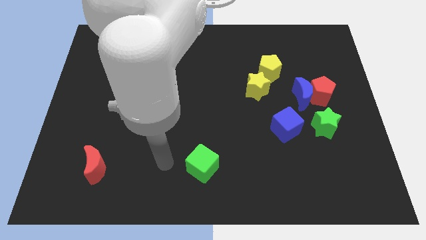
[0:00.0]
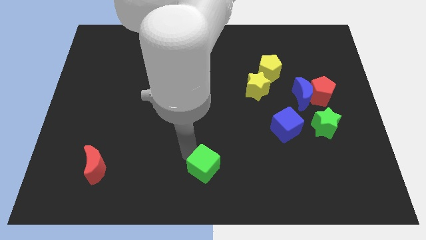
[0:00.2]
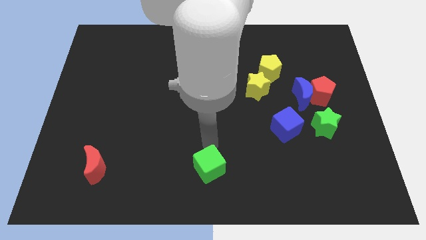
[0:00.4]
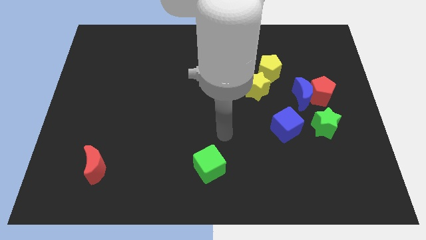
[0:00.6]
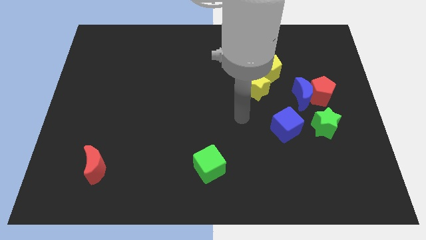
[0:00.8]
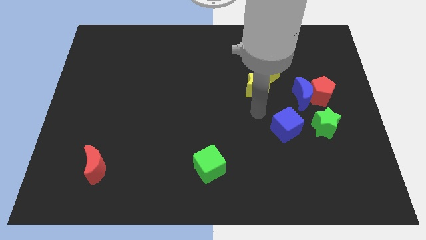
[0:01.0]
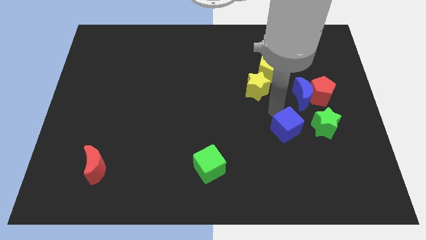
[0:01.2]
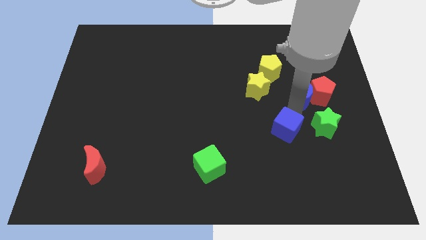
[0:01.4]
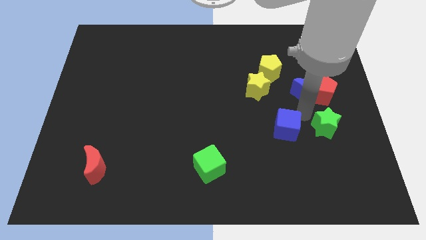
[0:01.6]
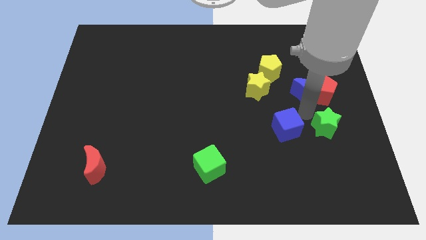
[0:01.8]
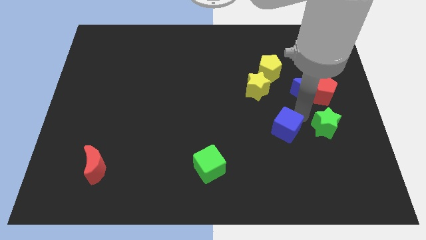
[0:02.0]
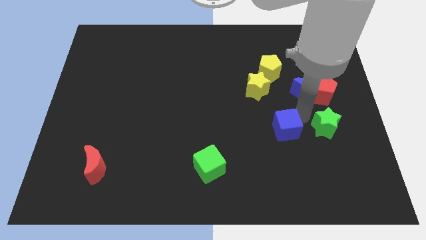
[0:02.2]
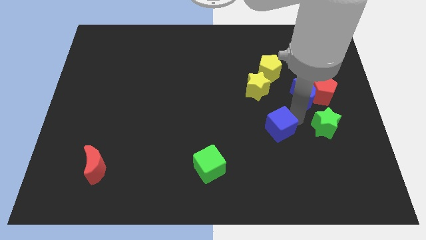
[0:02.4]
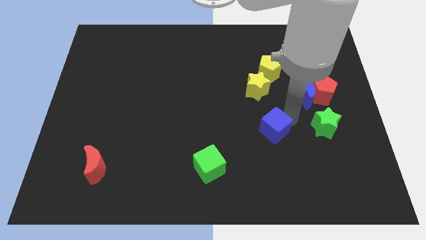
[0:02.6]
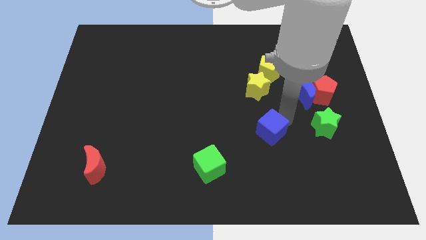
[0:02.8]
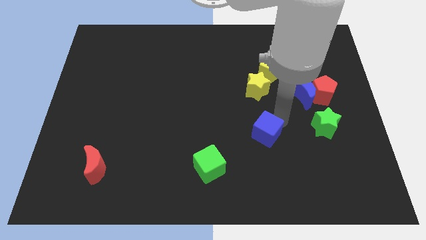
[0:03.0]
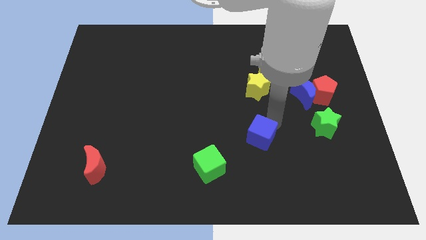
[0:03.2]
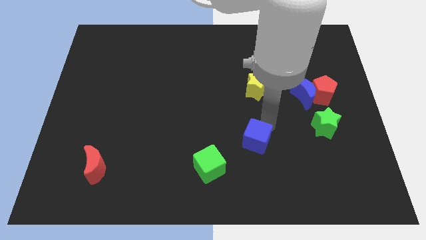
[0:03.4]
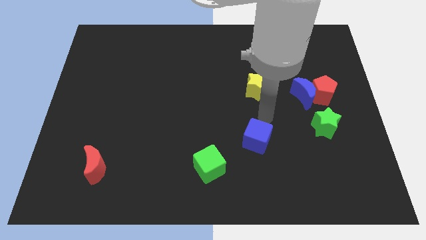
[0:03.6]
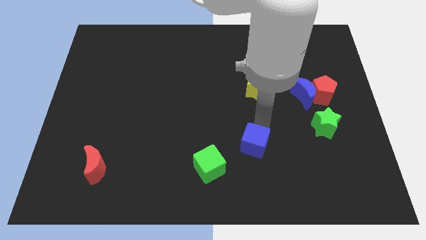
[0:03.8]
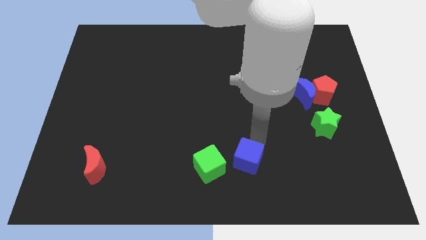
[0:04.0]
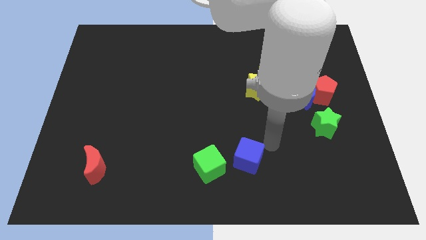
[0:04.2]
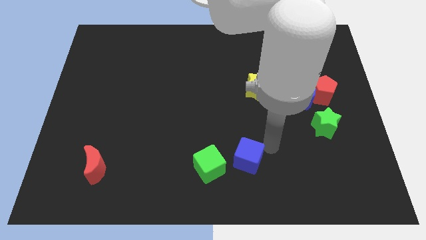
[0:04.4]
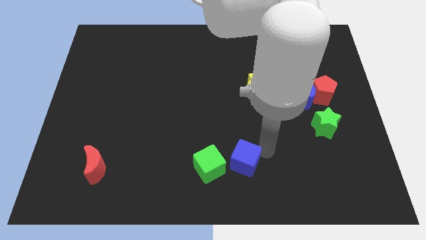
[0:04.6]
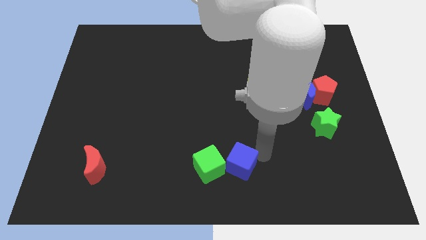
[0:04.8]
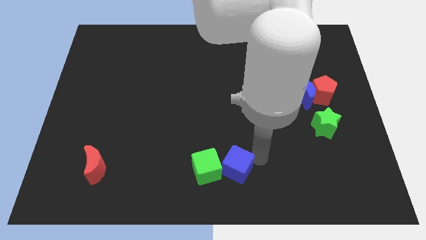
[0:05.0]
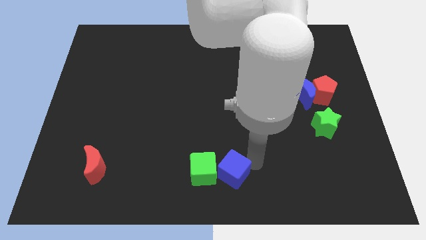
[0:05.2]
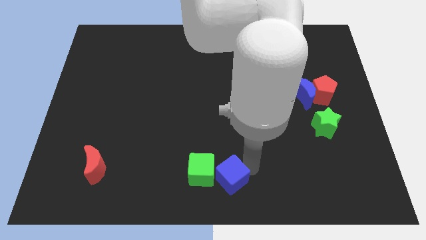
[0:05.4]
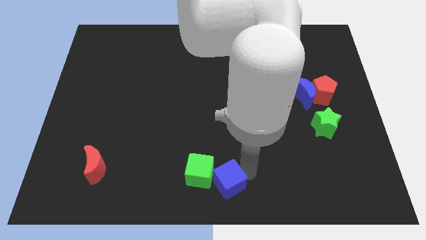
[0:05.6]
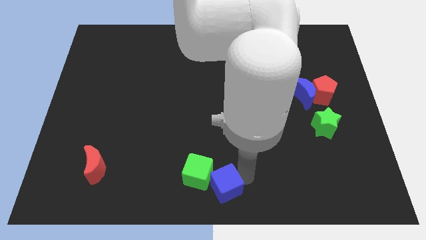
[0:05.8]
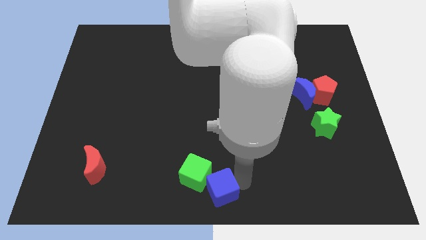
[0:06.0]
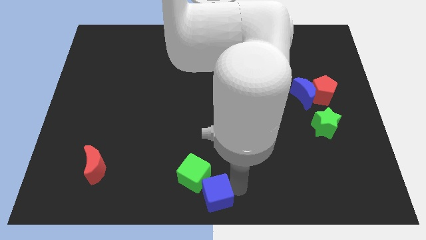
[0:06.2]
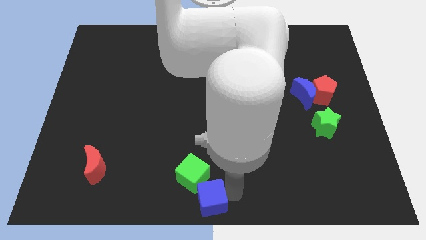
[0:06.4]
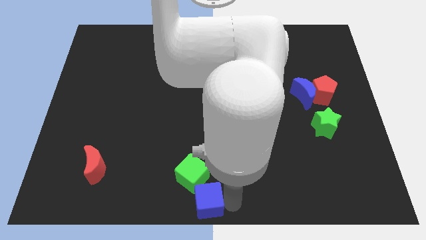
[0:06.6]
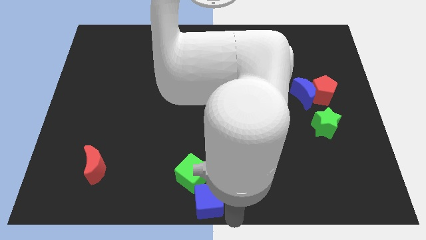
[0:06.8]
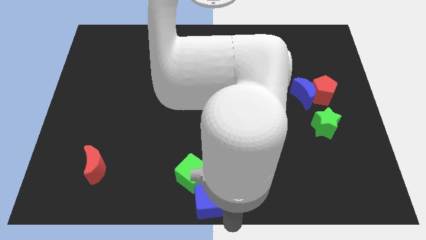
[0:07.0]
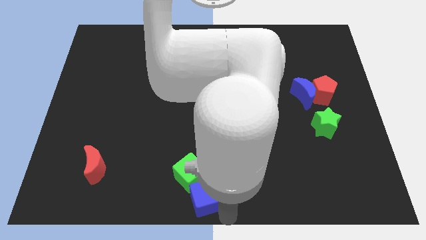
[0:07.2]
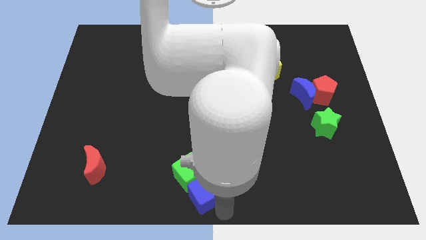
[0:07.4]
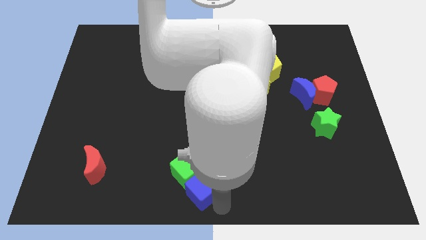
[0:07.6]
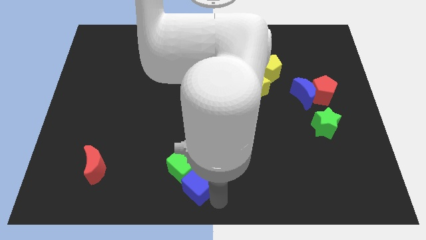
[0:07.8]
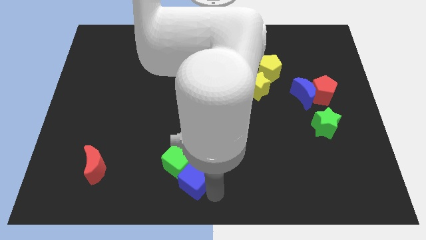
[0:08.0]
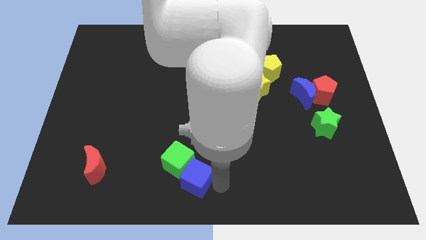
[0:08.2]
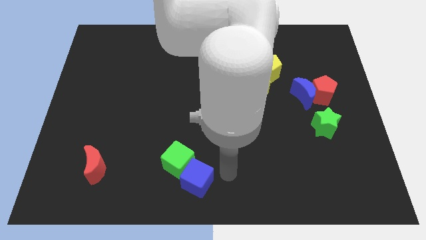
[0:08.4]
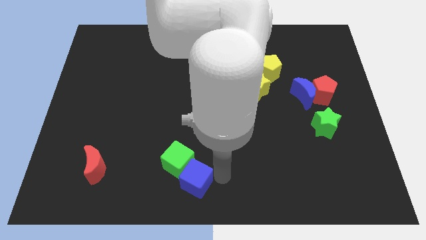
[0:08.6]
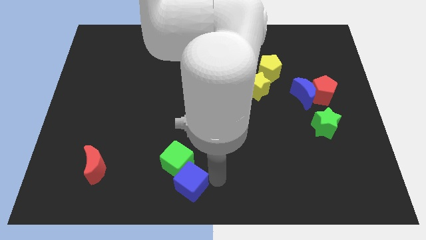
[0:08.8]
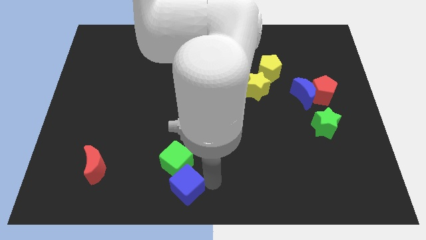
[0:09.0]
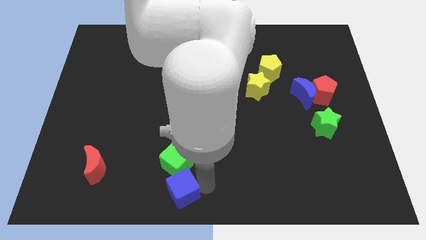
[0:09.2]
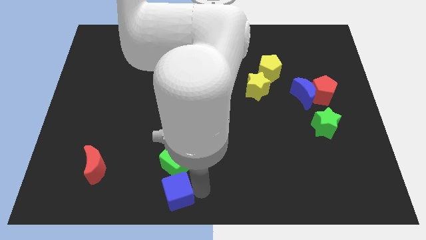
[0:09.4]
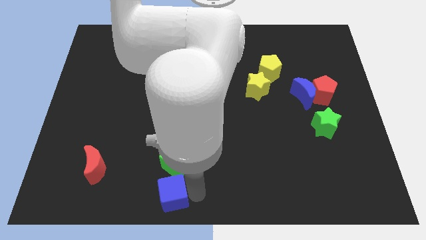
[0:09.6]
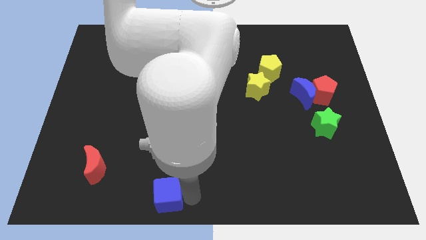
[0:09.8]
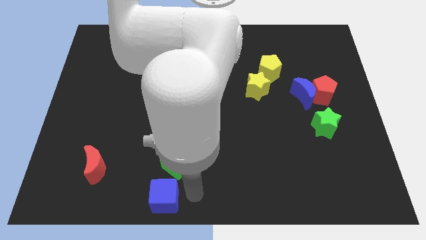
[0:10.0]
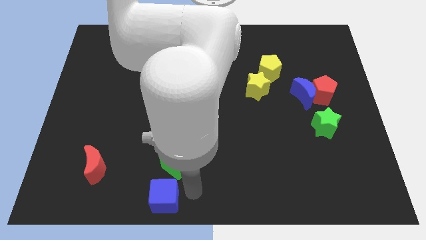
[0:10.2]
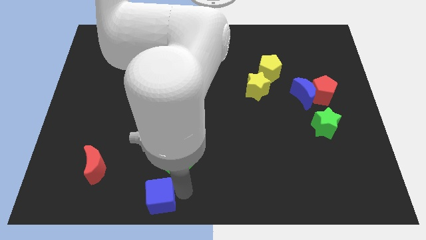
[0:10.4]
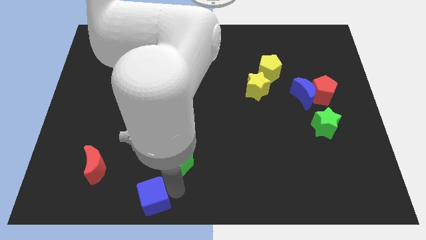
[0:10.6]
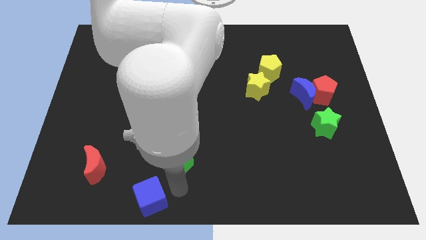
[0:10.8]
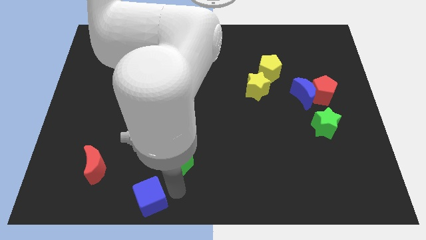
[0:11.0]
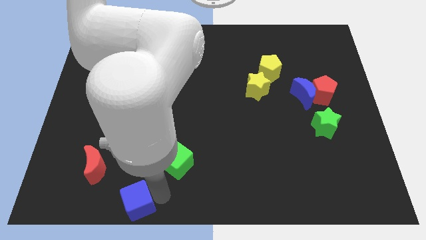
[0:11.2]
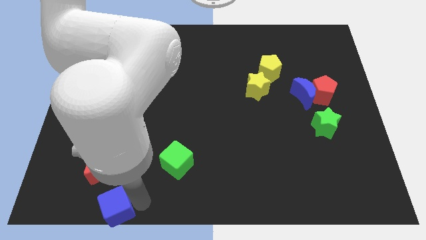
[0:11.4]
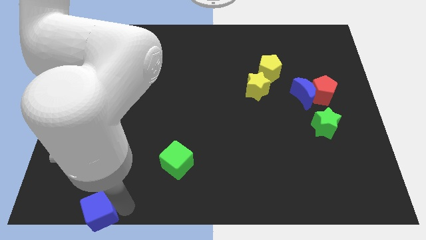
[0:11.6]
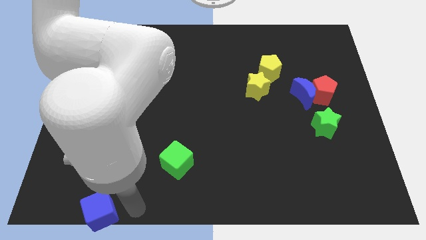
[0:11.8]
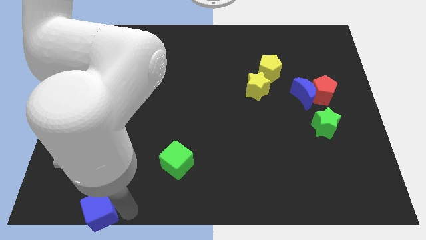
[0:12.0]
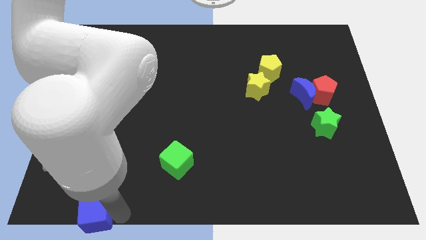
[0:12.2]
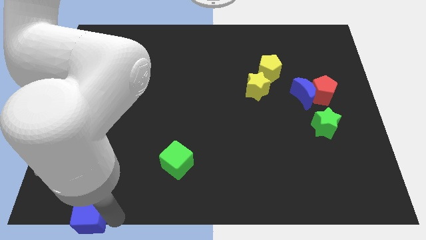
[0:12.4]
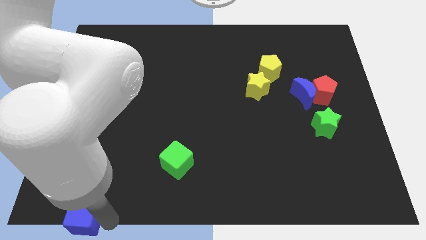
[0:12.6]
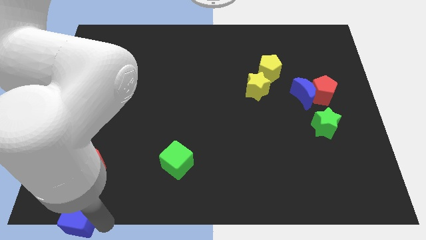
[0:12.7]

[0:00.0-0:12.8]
move the blue cube to the bottom left
